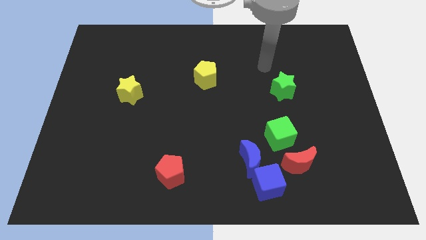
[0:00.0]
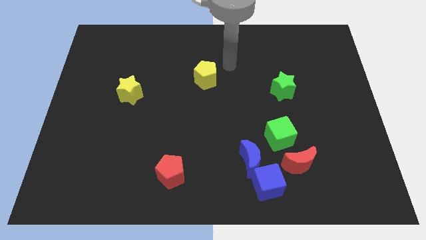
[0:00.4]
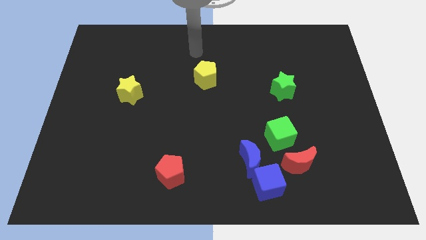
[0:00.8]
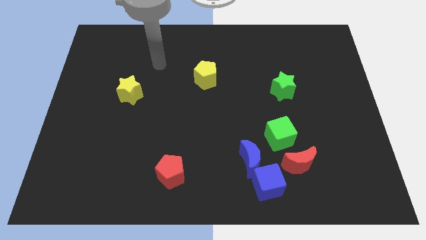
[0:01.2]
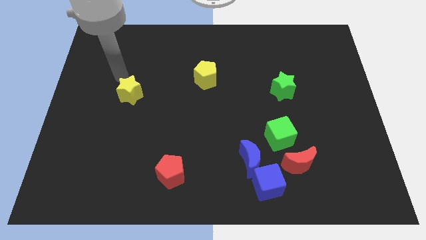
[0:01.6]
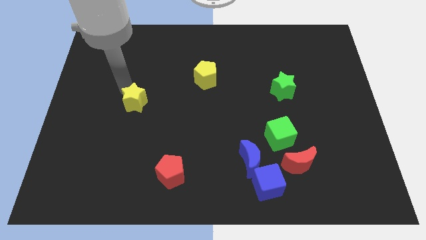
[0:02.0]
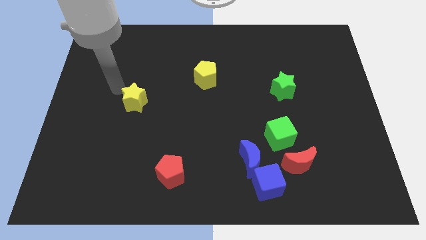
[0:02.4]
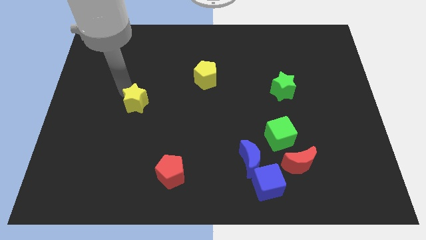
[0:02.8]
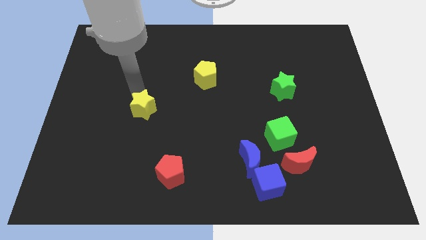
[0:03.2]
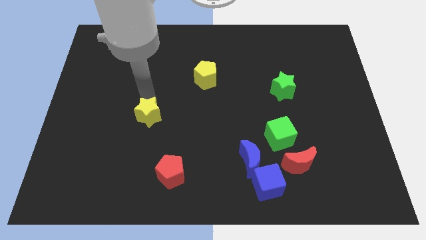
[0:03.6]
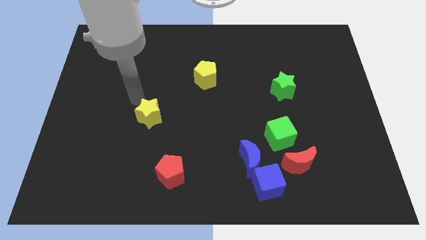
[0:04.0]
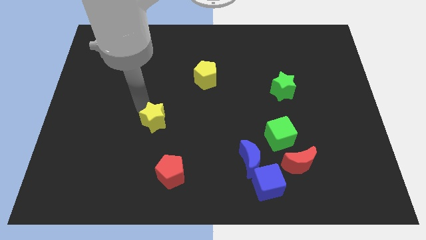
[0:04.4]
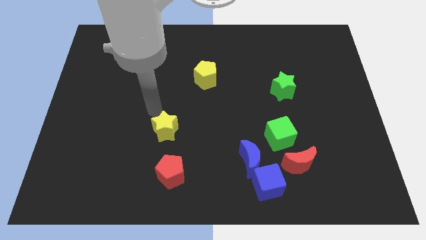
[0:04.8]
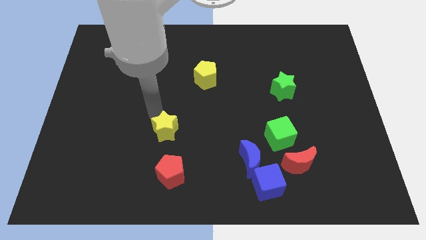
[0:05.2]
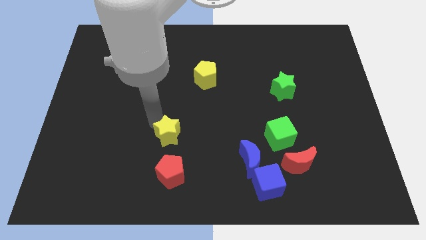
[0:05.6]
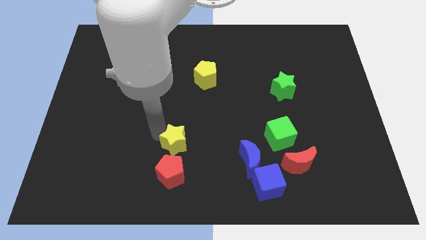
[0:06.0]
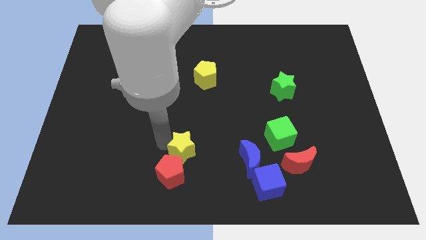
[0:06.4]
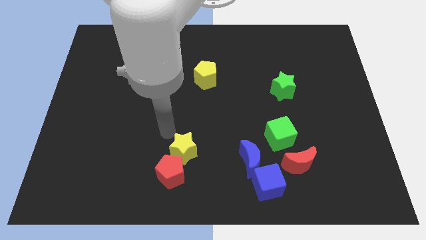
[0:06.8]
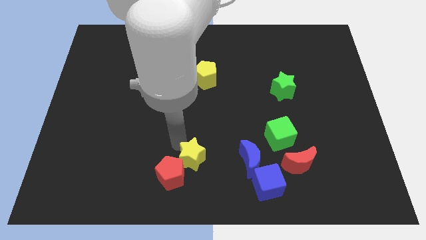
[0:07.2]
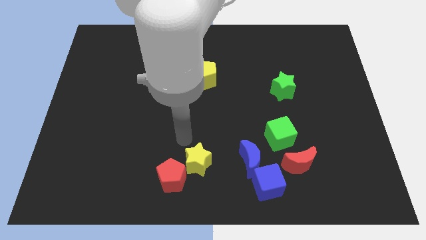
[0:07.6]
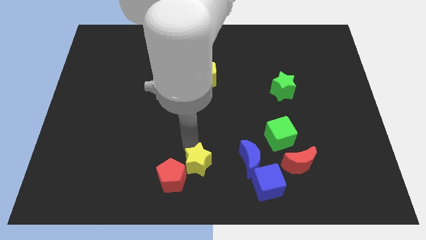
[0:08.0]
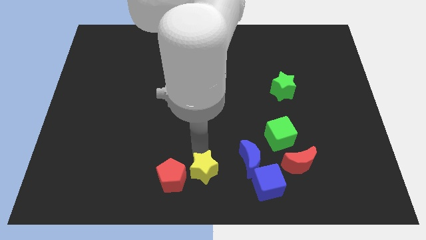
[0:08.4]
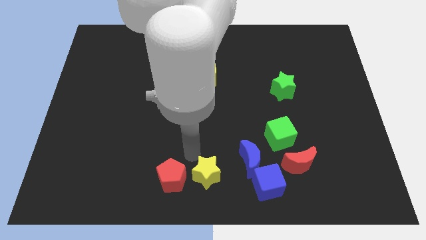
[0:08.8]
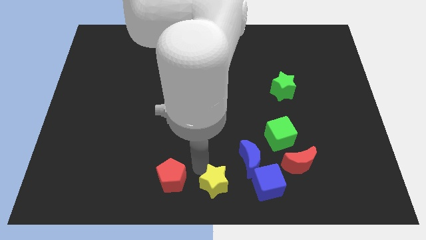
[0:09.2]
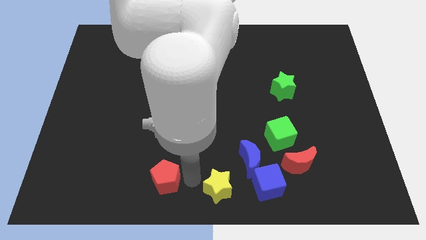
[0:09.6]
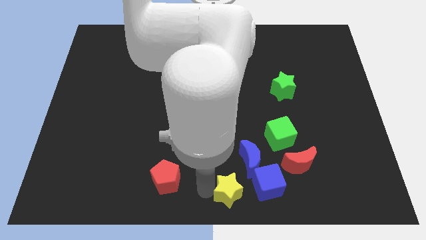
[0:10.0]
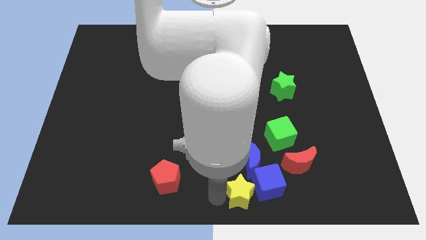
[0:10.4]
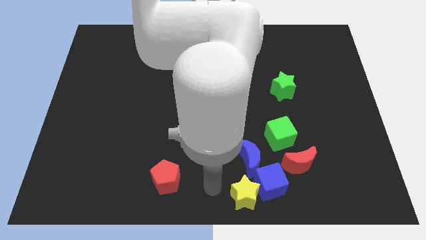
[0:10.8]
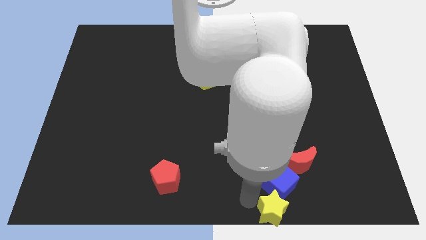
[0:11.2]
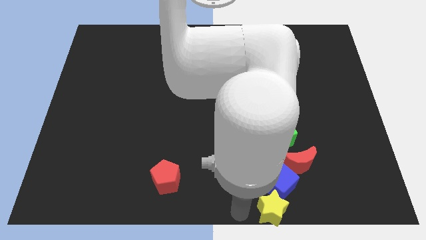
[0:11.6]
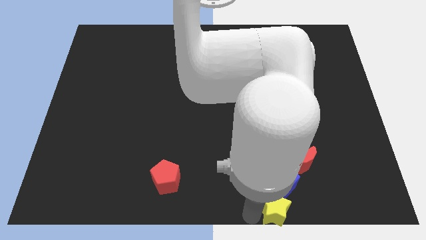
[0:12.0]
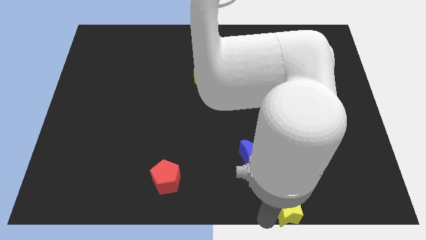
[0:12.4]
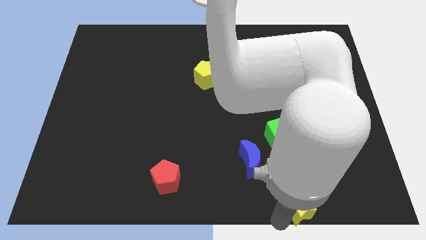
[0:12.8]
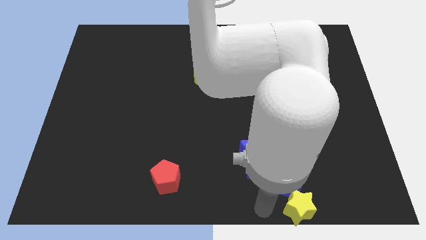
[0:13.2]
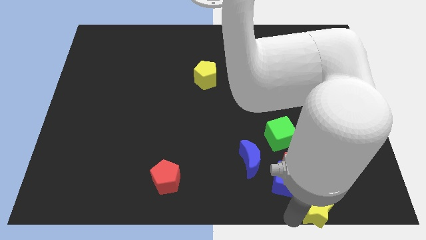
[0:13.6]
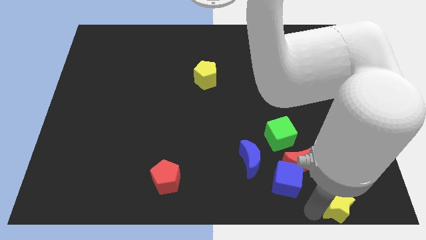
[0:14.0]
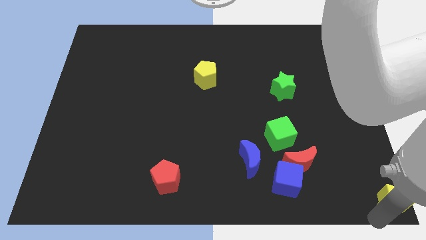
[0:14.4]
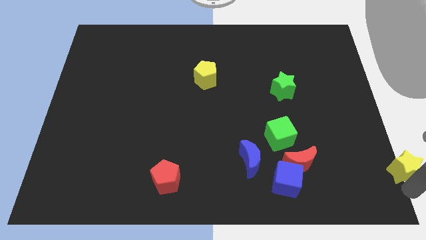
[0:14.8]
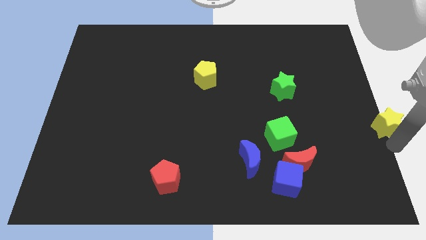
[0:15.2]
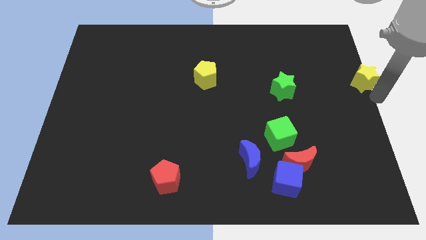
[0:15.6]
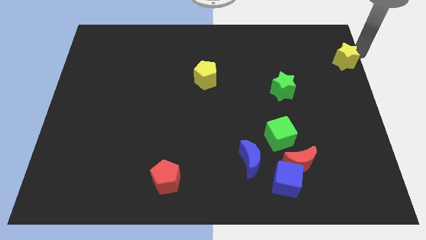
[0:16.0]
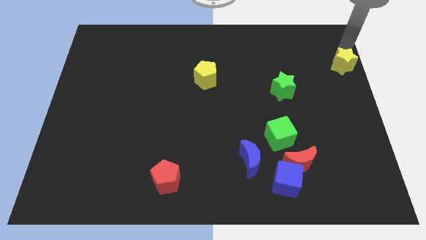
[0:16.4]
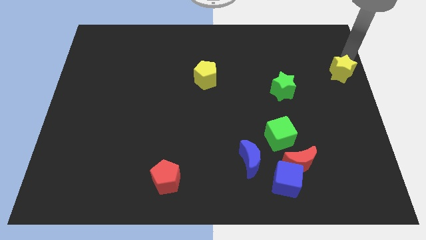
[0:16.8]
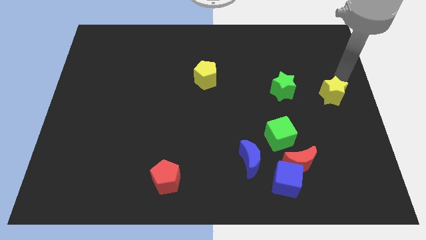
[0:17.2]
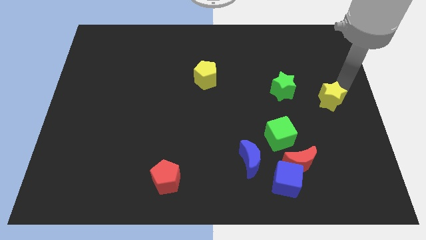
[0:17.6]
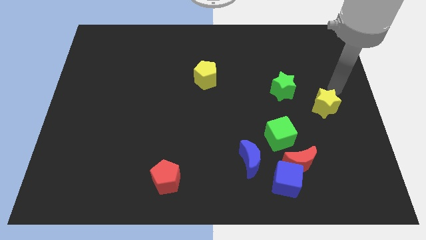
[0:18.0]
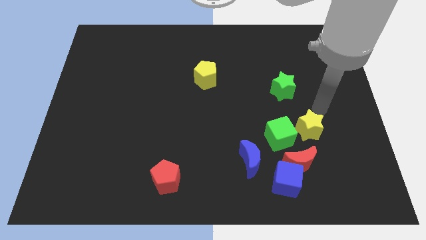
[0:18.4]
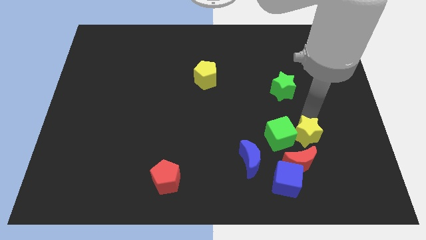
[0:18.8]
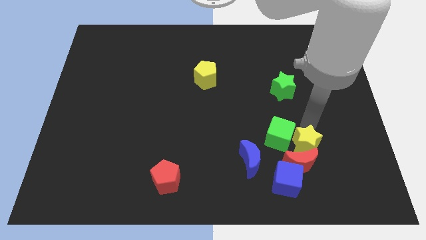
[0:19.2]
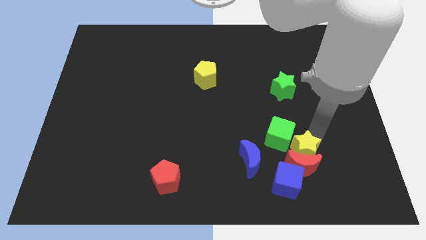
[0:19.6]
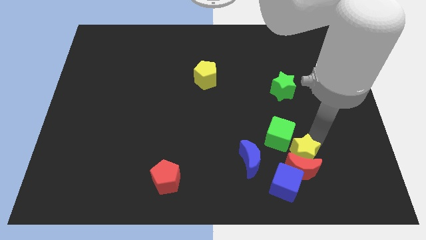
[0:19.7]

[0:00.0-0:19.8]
push the yellow star to the bottom of the green cube

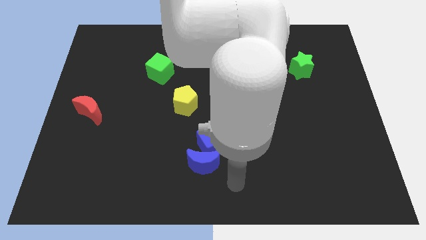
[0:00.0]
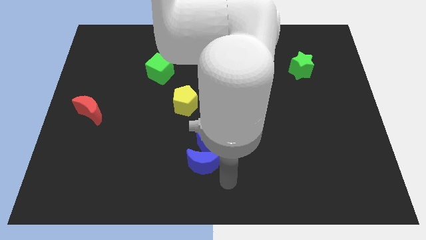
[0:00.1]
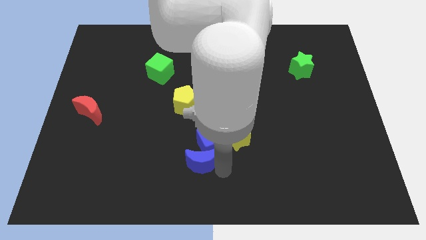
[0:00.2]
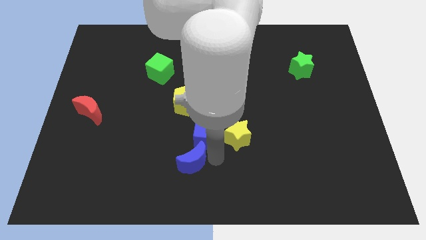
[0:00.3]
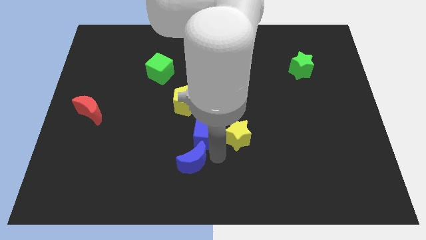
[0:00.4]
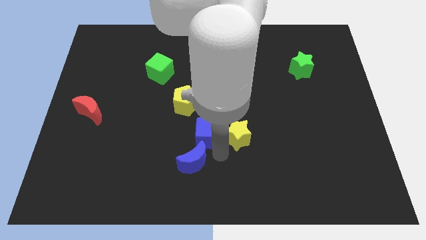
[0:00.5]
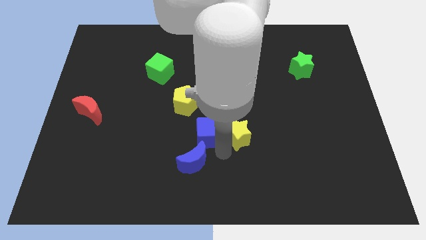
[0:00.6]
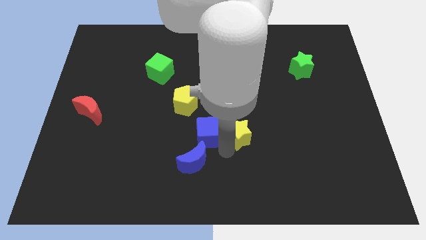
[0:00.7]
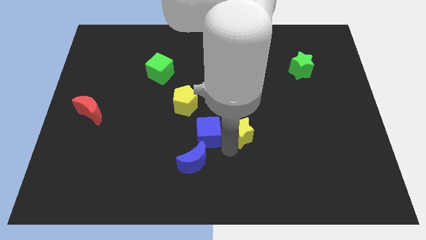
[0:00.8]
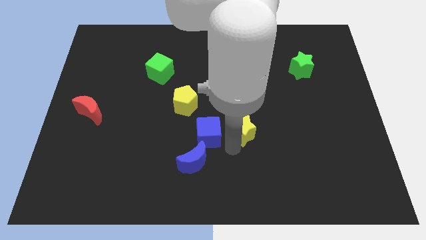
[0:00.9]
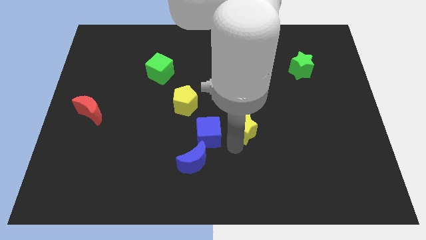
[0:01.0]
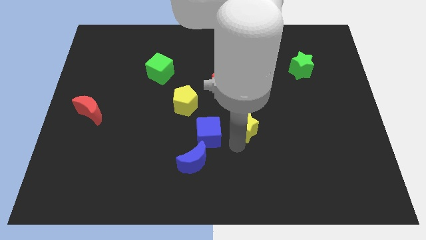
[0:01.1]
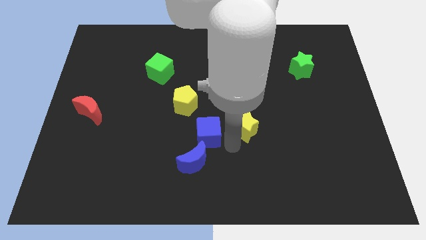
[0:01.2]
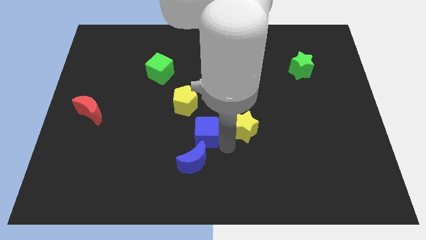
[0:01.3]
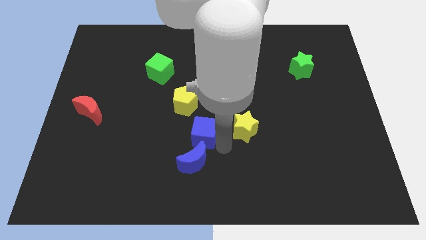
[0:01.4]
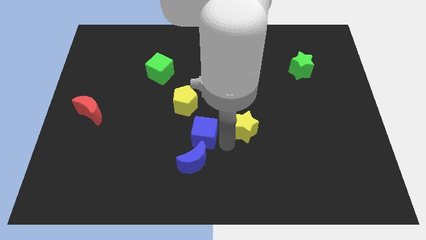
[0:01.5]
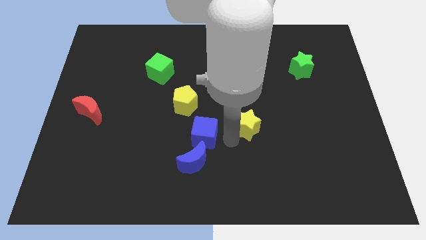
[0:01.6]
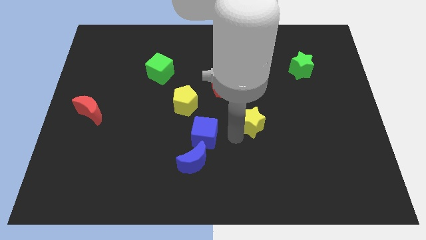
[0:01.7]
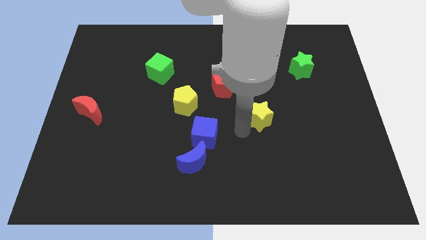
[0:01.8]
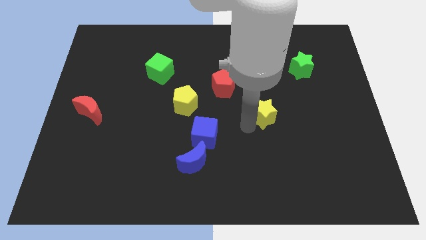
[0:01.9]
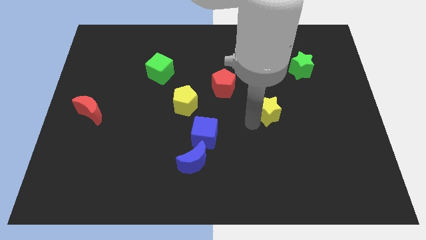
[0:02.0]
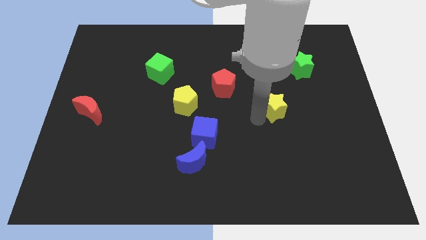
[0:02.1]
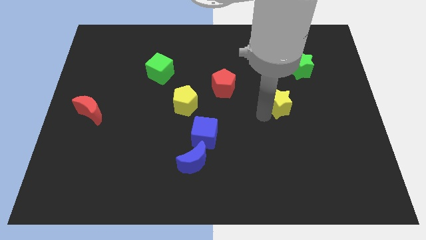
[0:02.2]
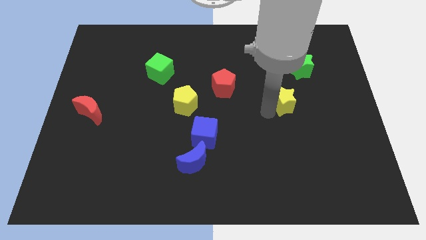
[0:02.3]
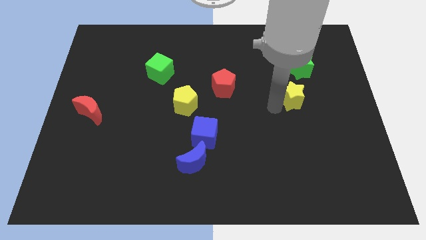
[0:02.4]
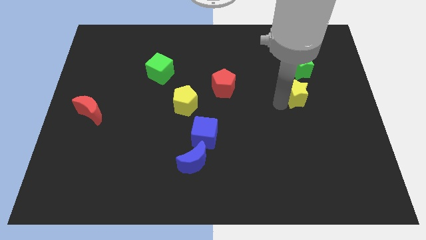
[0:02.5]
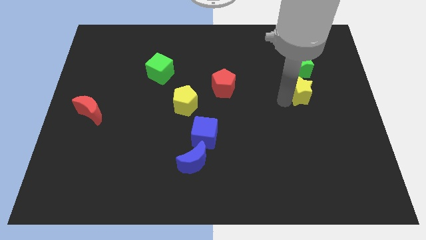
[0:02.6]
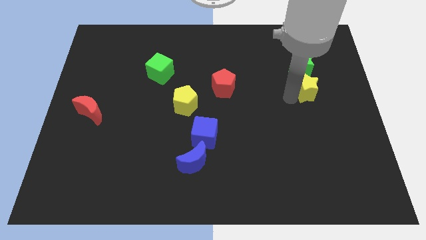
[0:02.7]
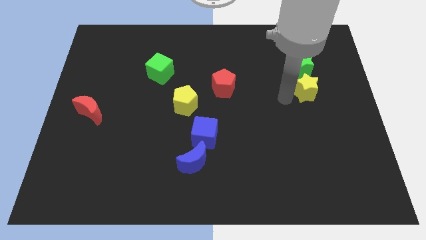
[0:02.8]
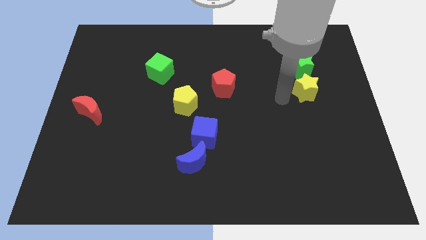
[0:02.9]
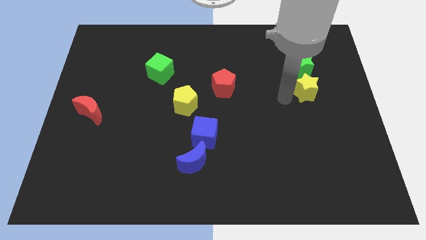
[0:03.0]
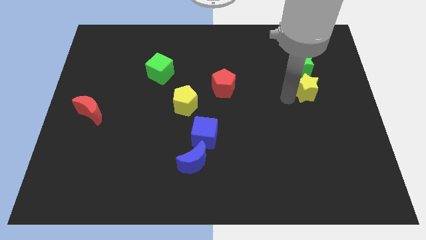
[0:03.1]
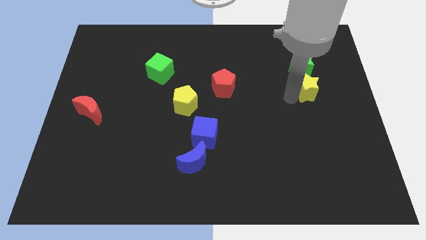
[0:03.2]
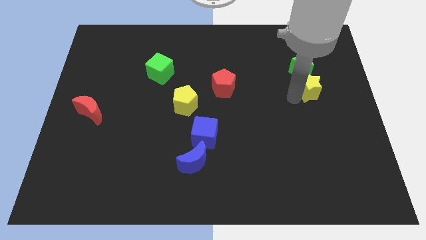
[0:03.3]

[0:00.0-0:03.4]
put the yellow star to the bottom right side of the green star
